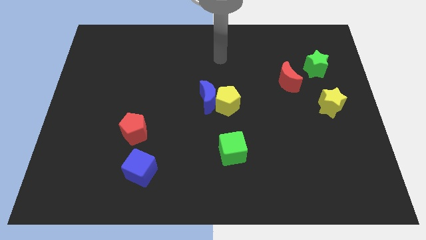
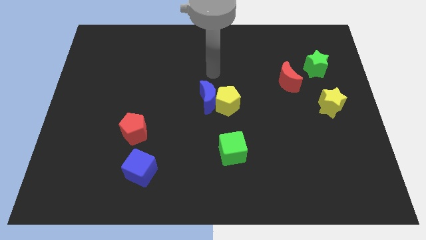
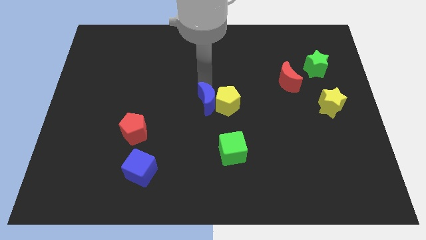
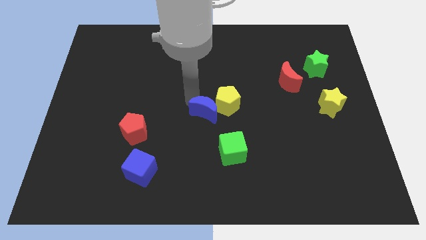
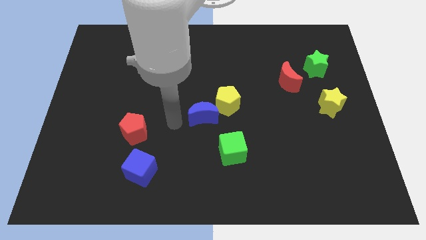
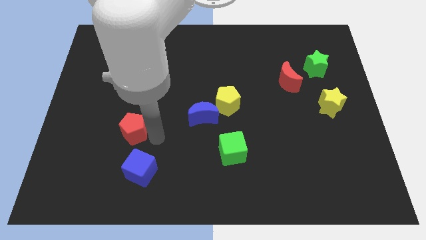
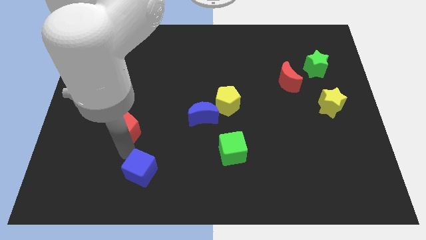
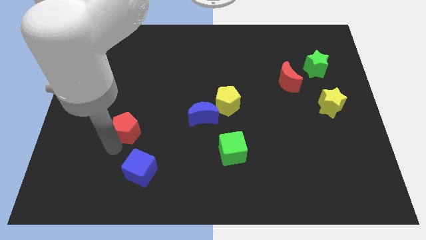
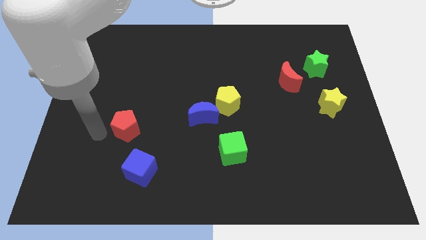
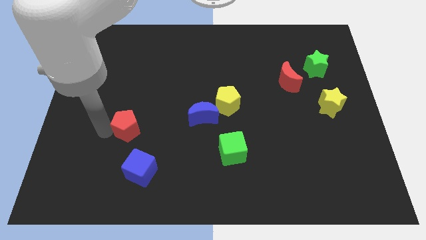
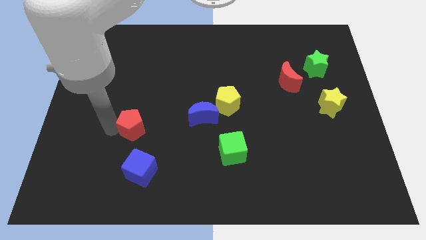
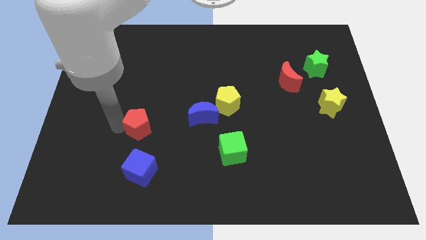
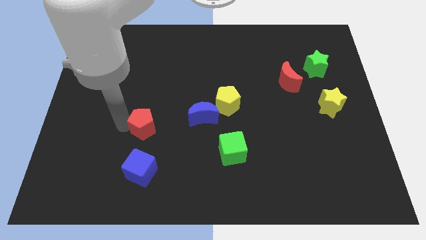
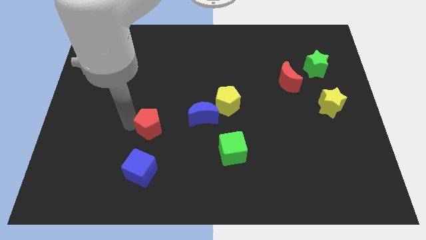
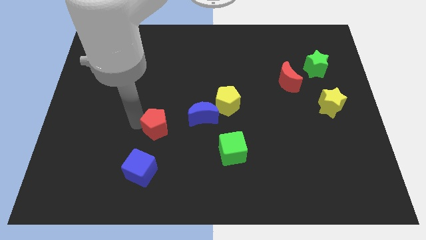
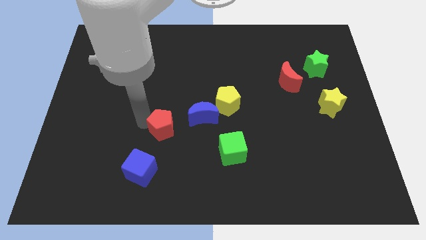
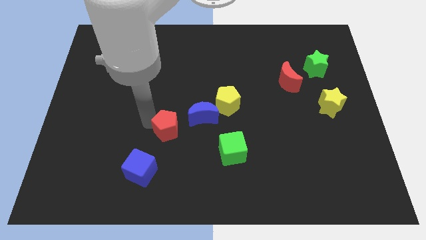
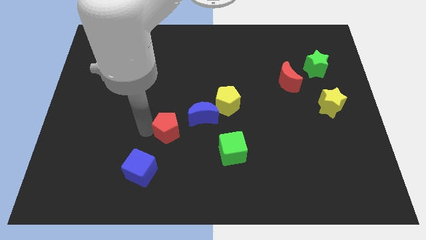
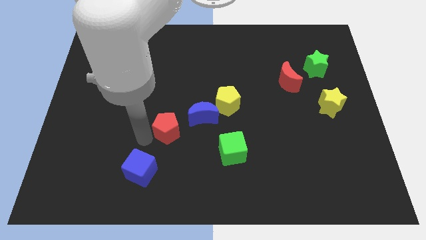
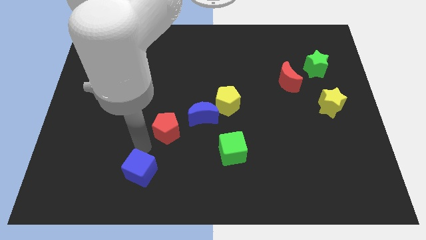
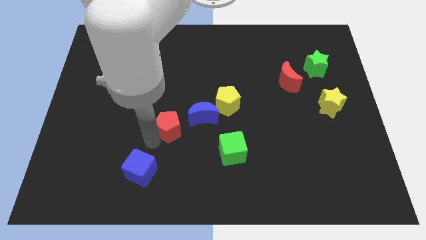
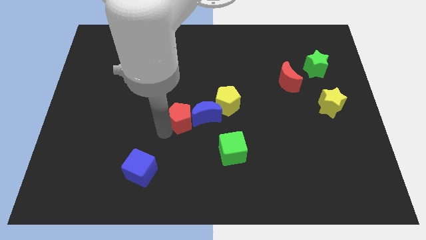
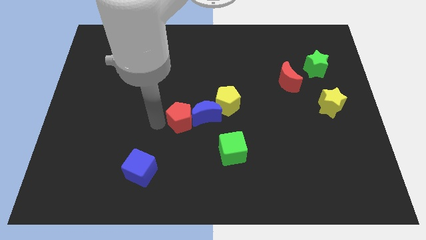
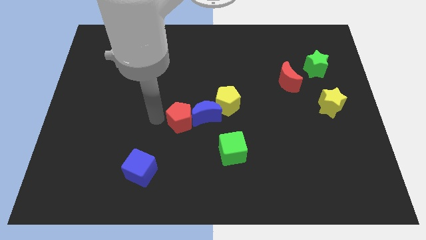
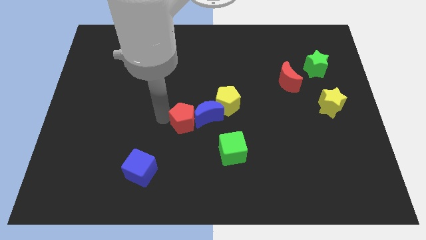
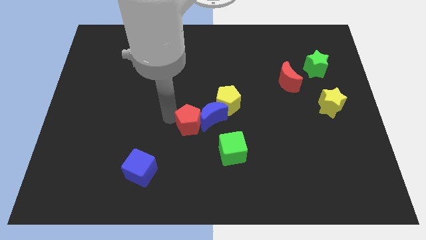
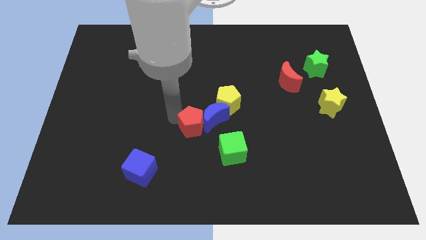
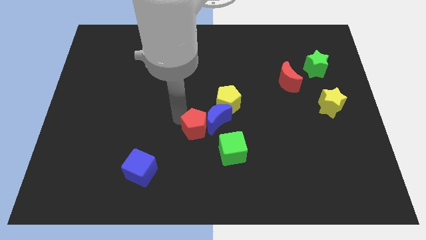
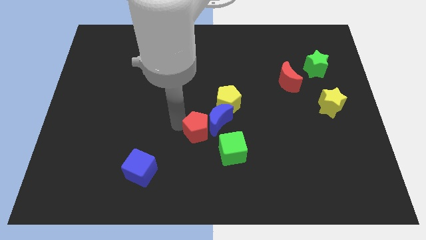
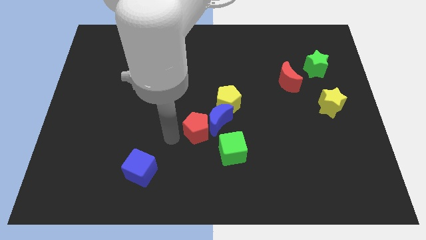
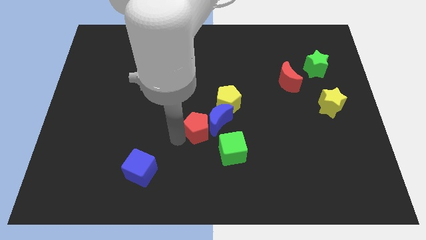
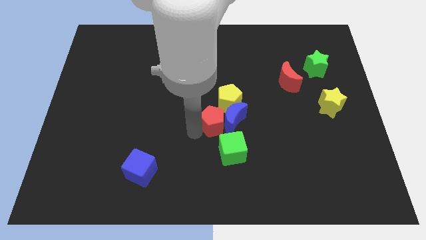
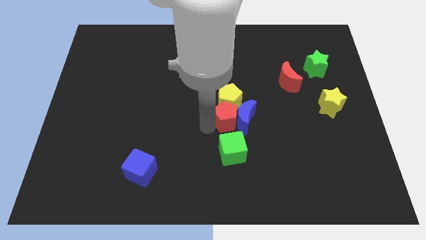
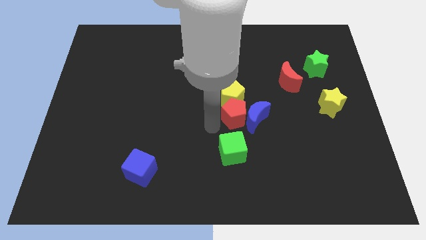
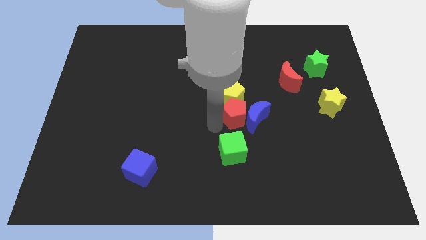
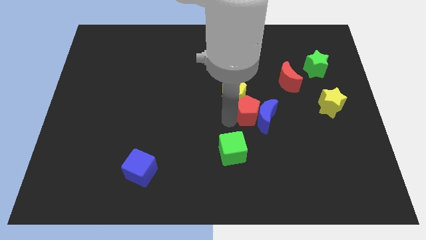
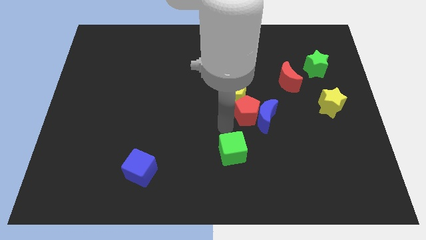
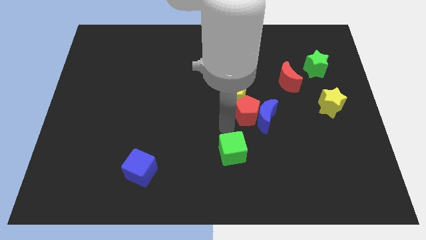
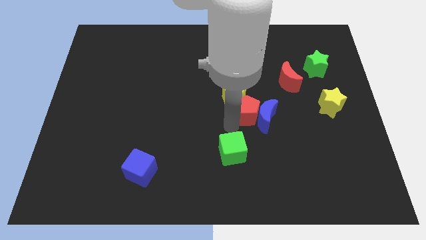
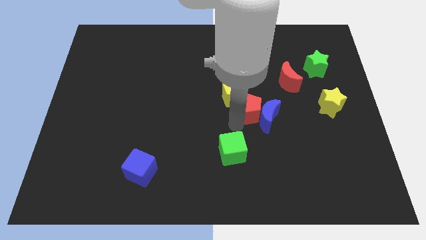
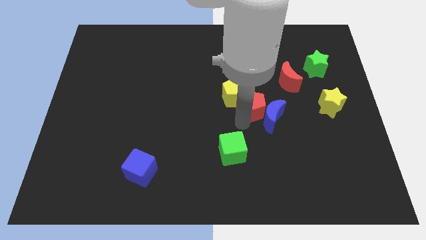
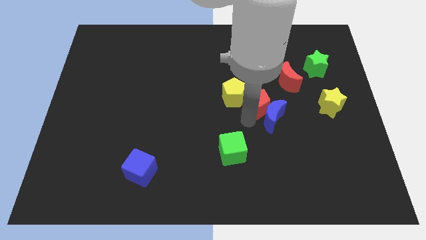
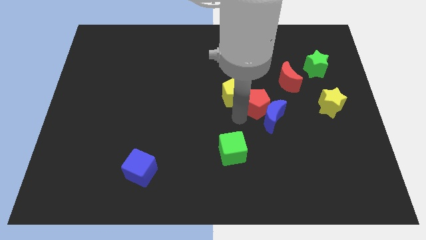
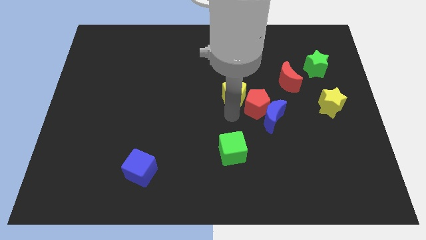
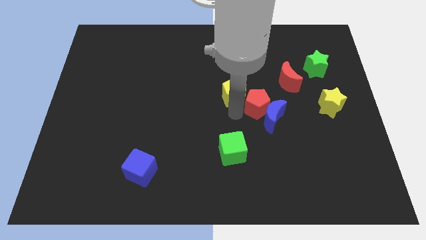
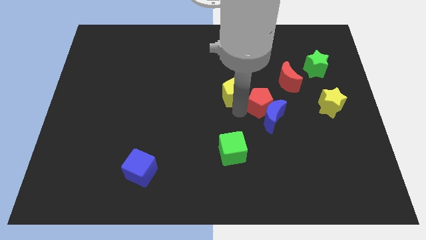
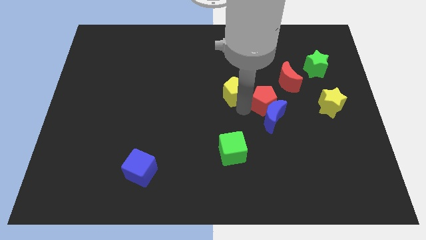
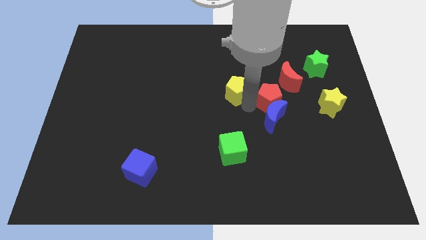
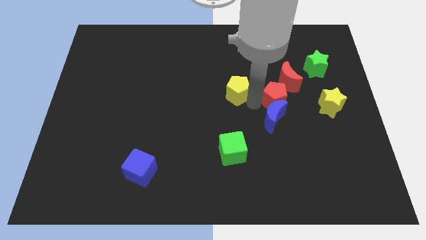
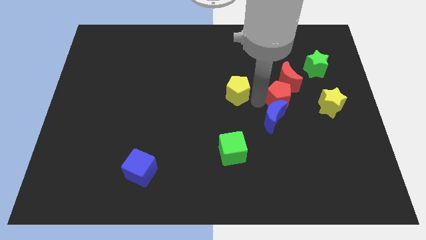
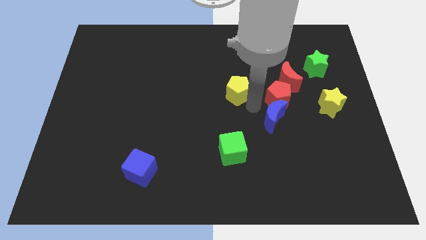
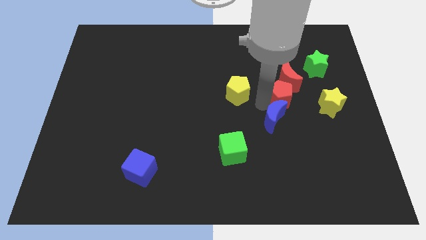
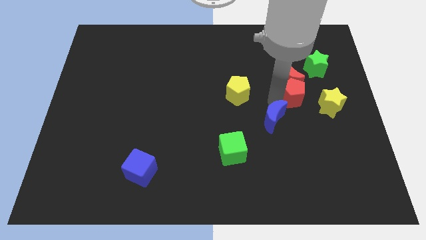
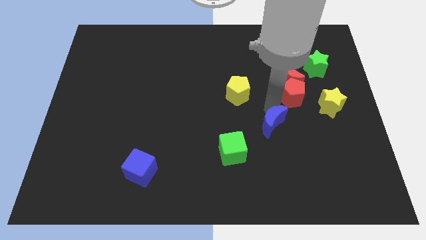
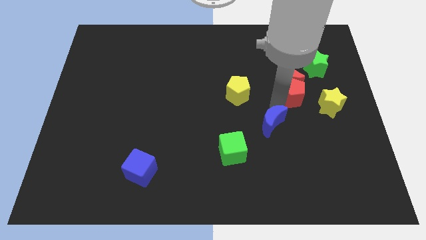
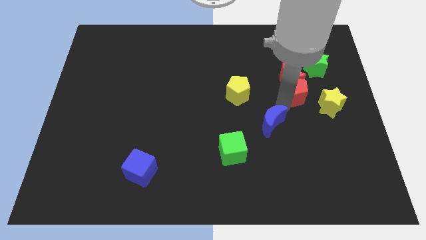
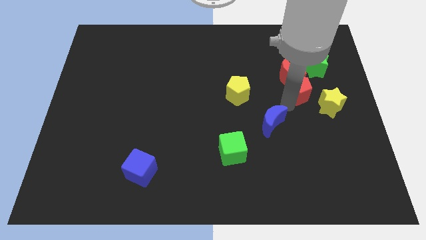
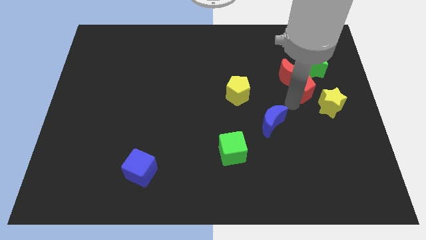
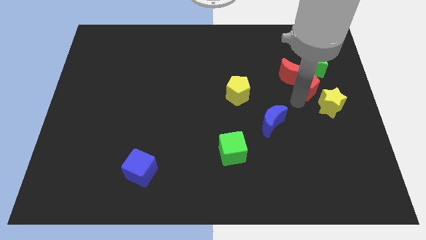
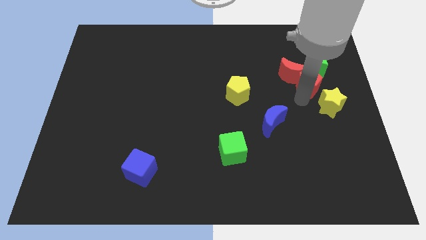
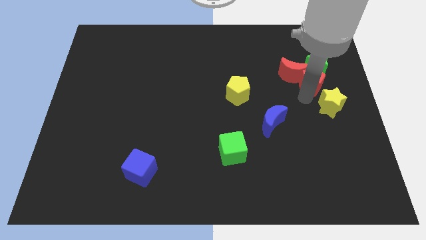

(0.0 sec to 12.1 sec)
slide the red pentagon next to the green star

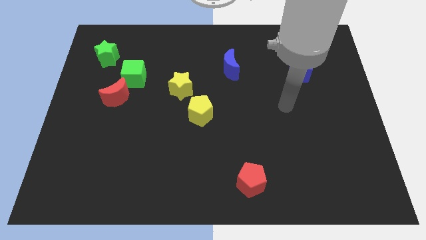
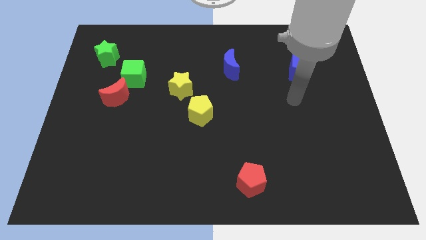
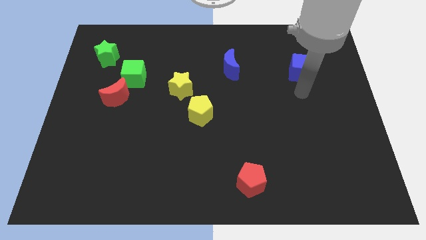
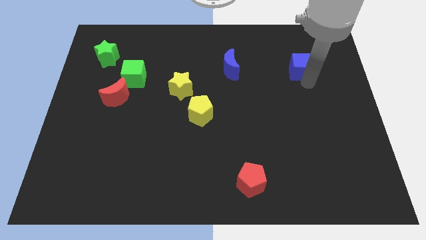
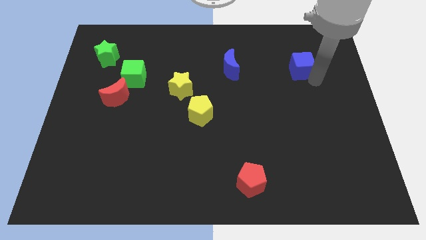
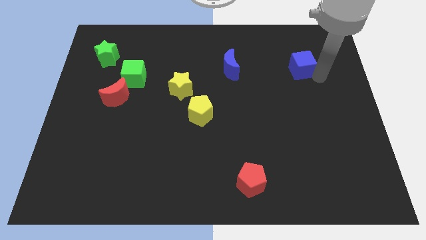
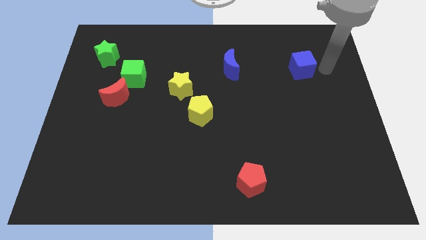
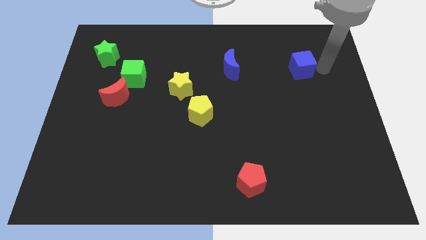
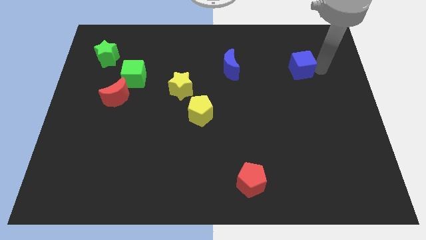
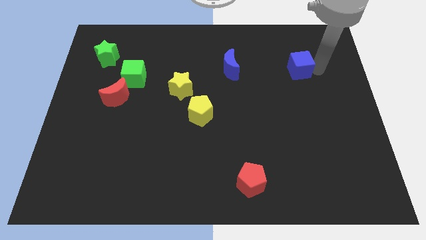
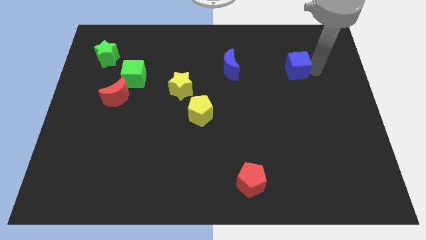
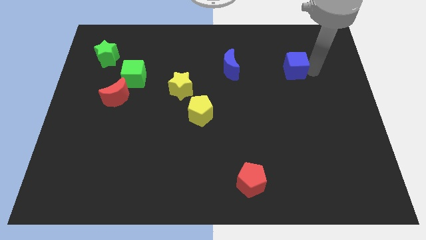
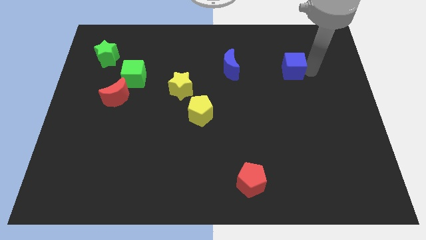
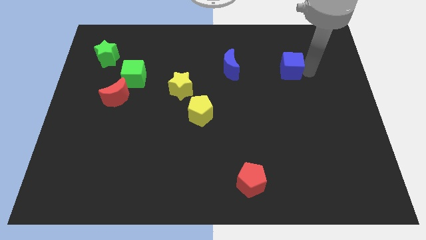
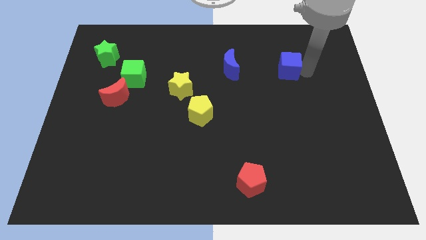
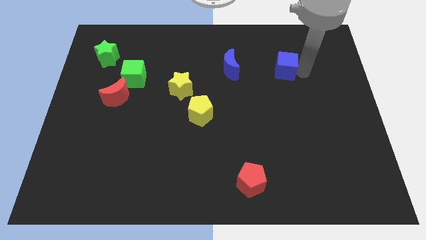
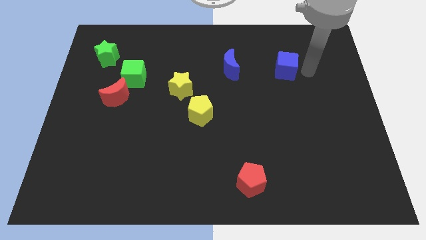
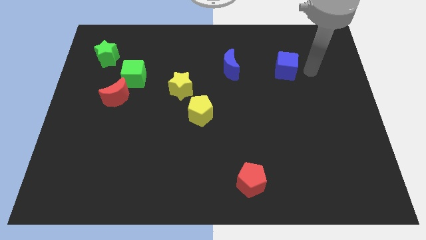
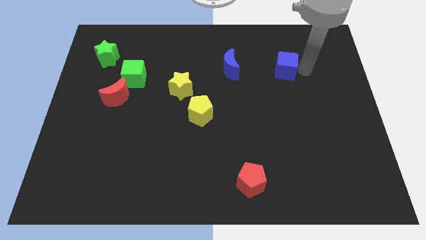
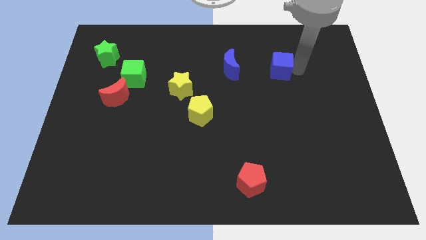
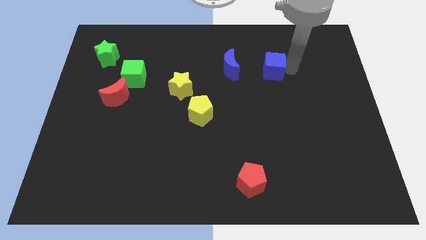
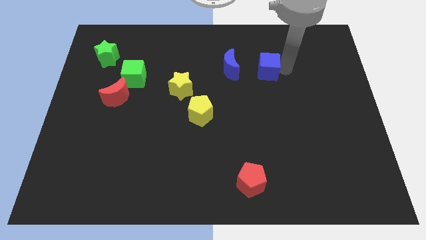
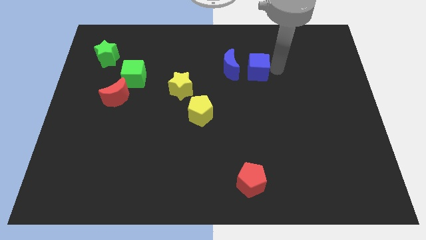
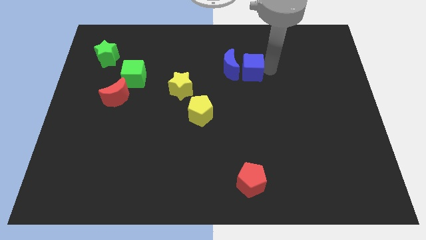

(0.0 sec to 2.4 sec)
move the blue cube next to the blue moon
